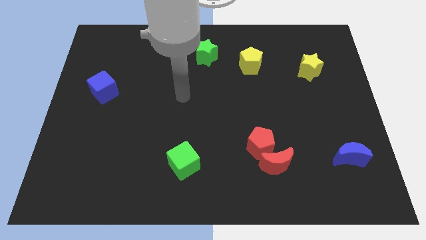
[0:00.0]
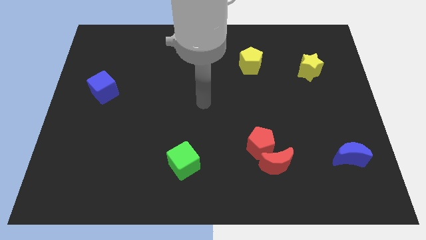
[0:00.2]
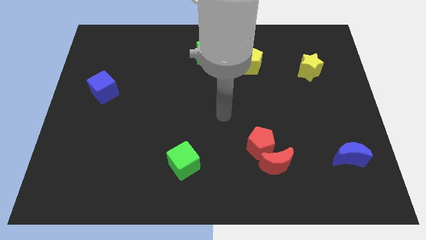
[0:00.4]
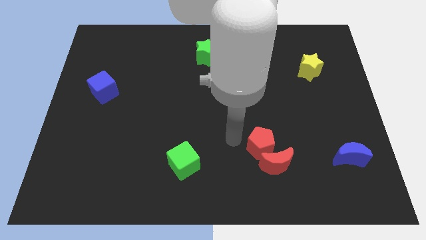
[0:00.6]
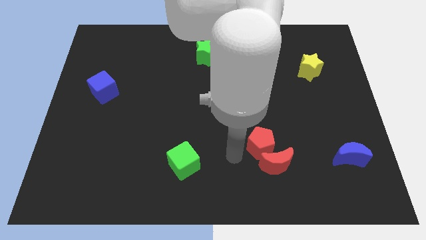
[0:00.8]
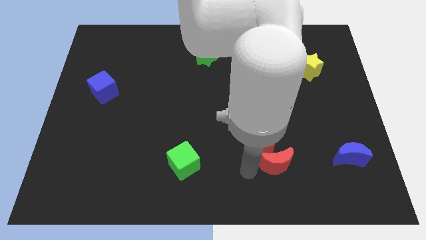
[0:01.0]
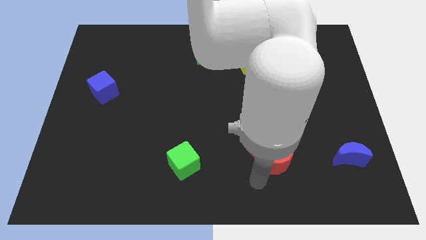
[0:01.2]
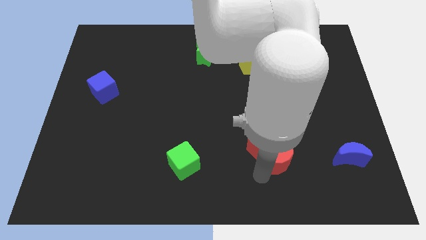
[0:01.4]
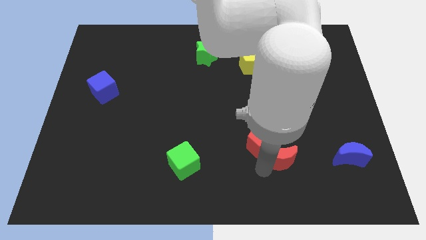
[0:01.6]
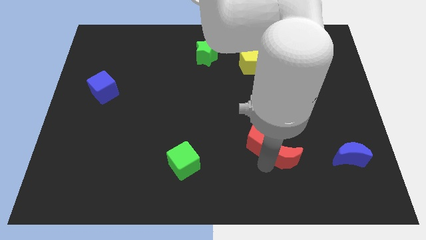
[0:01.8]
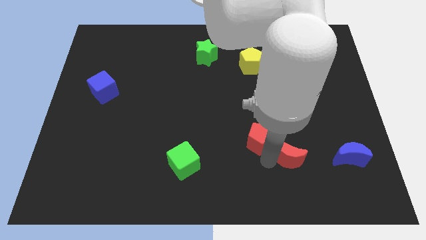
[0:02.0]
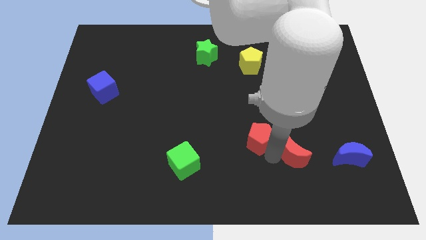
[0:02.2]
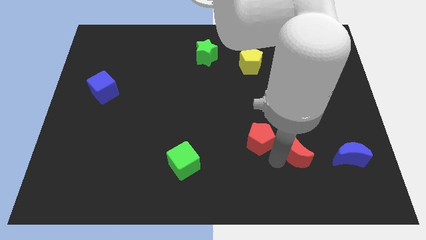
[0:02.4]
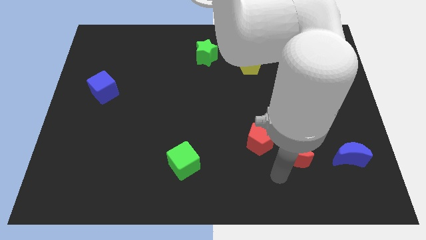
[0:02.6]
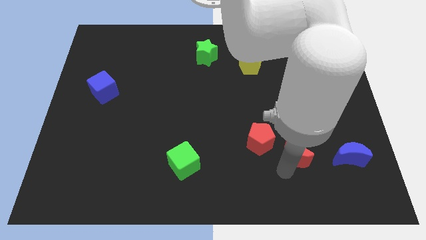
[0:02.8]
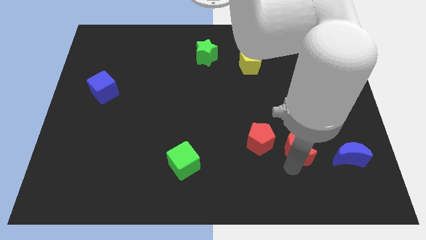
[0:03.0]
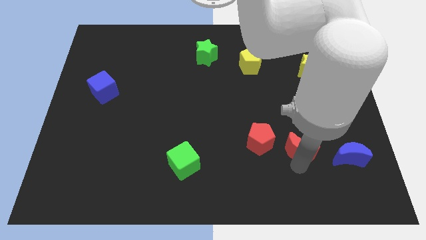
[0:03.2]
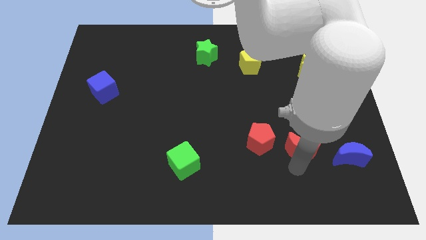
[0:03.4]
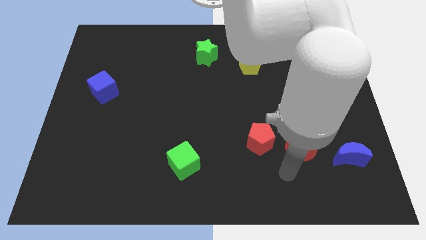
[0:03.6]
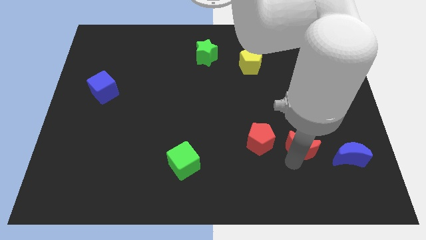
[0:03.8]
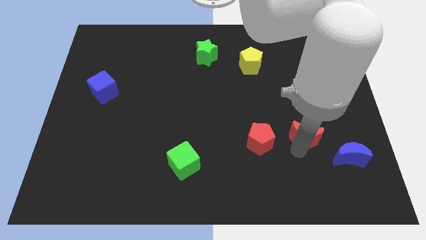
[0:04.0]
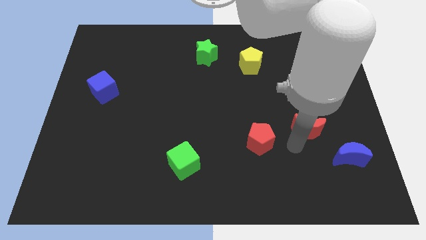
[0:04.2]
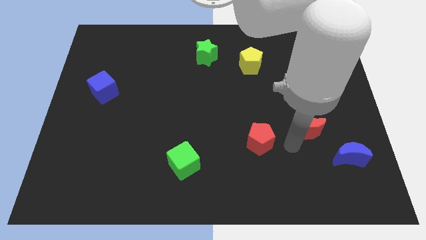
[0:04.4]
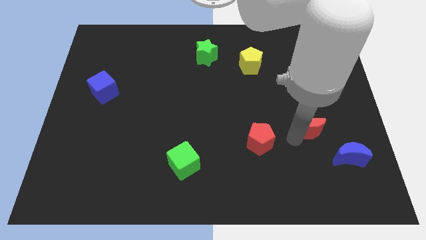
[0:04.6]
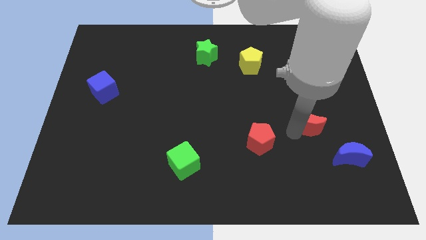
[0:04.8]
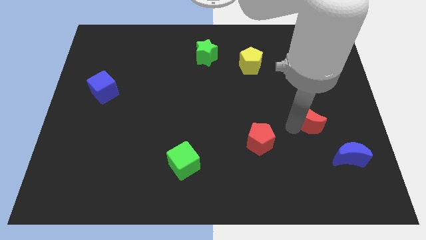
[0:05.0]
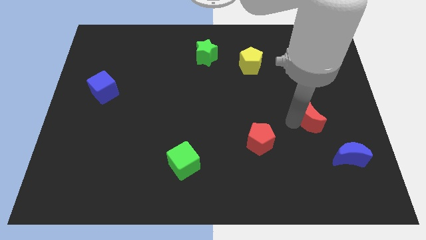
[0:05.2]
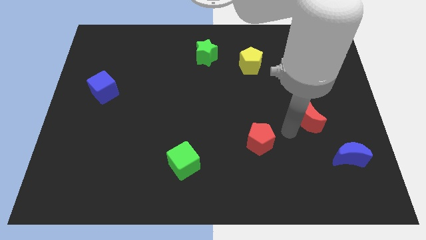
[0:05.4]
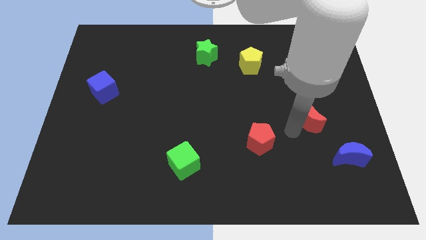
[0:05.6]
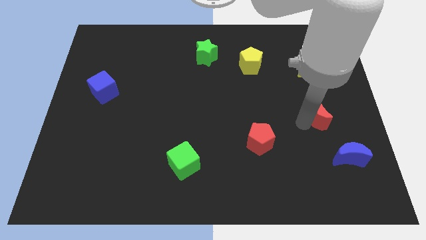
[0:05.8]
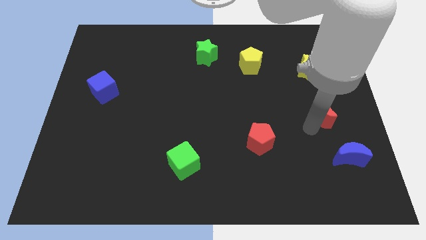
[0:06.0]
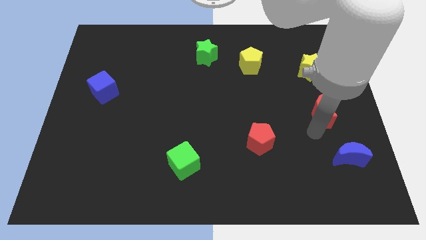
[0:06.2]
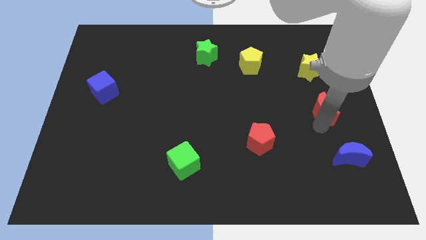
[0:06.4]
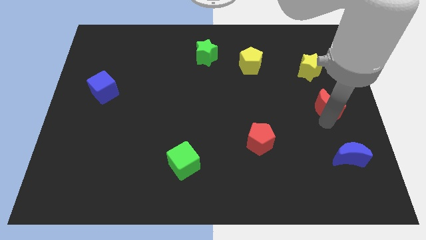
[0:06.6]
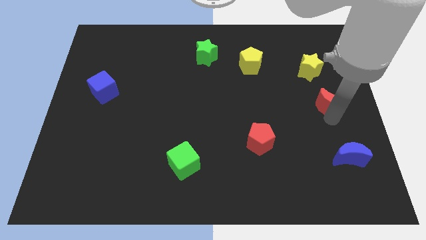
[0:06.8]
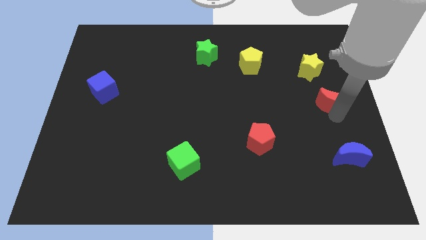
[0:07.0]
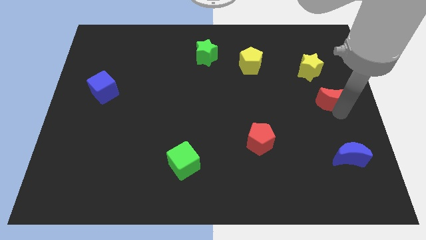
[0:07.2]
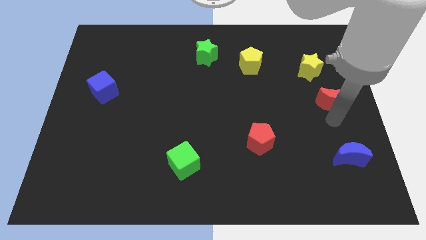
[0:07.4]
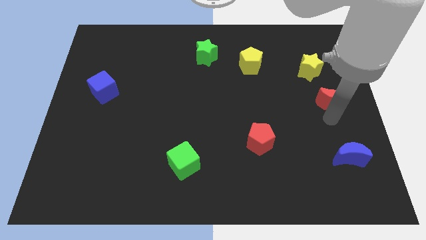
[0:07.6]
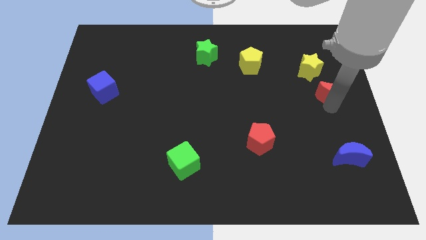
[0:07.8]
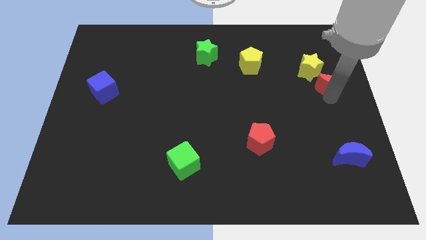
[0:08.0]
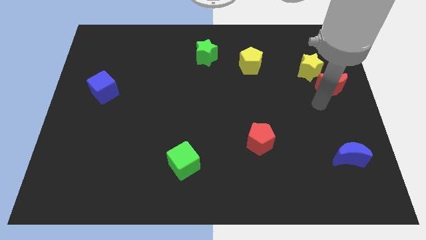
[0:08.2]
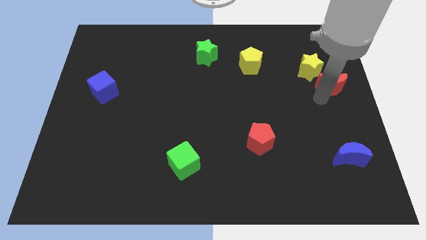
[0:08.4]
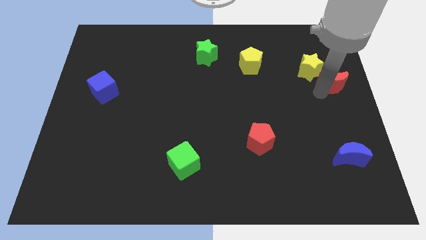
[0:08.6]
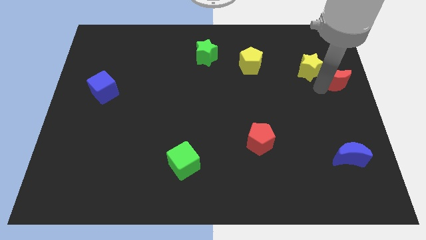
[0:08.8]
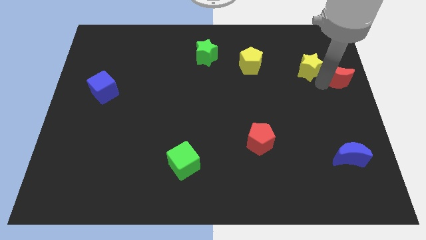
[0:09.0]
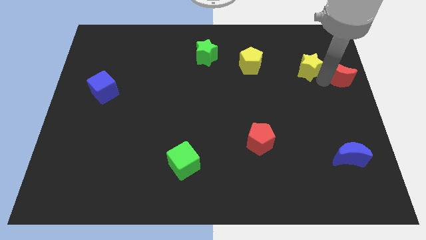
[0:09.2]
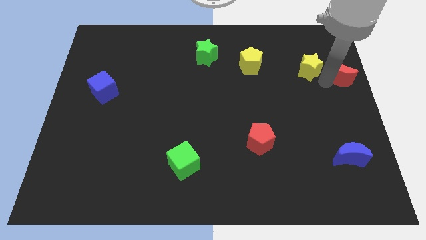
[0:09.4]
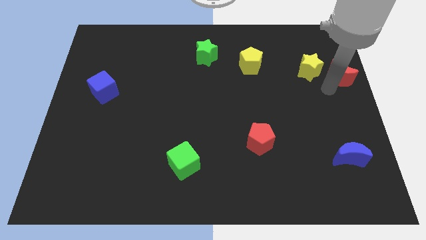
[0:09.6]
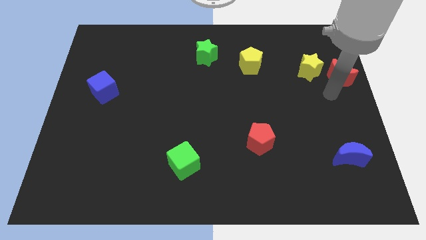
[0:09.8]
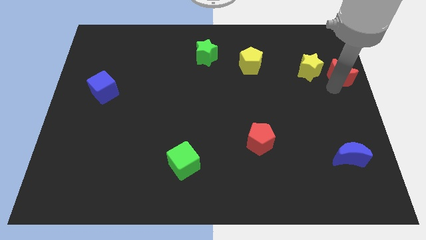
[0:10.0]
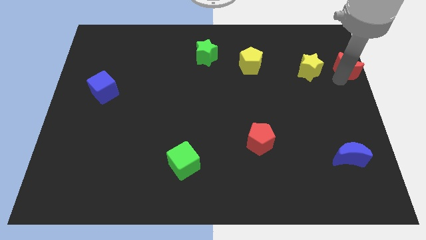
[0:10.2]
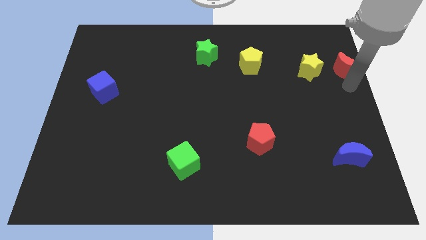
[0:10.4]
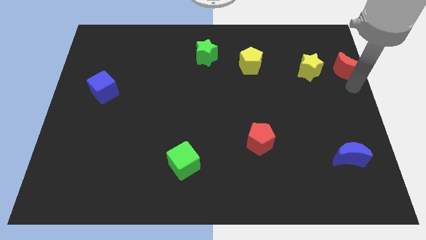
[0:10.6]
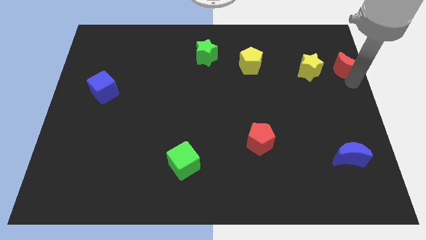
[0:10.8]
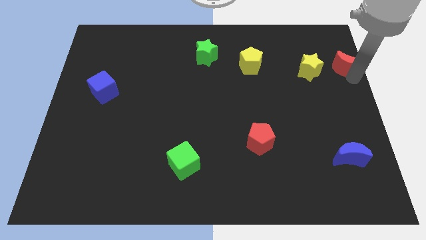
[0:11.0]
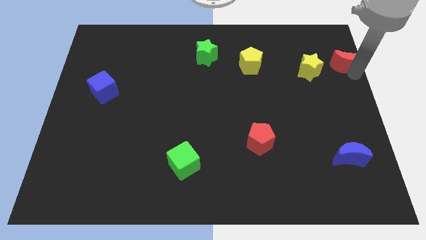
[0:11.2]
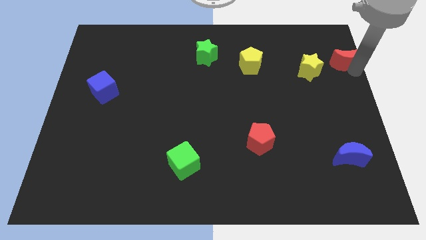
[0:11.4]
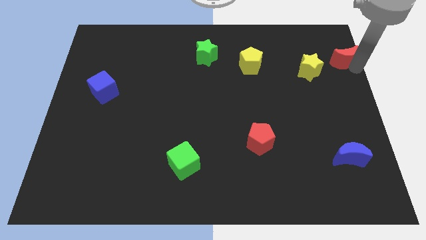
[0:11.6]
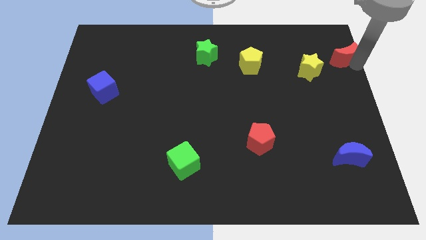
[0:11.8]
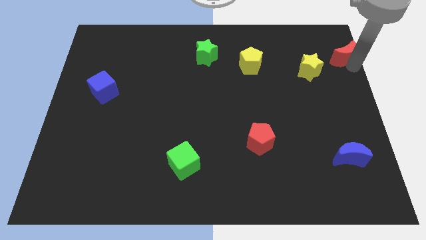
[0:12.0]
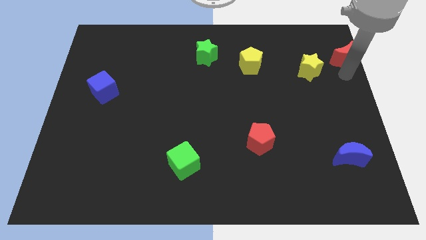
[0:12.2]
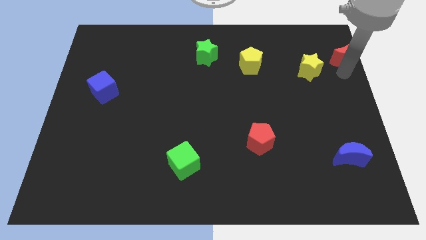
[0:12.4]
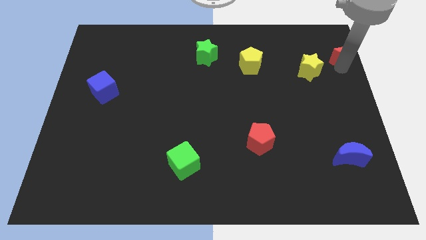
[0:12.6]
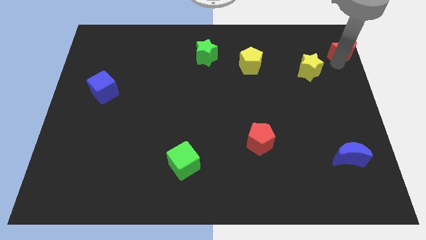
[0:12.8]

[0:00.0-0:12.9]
slide the red moon to the top right of the board

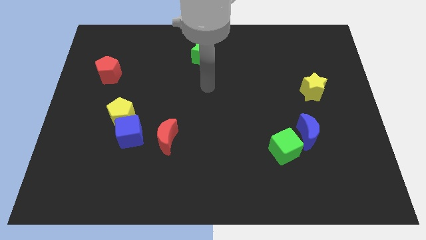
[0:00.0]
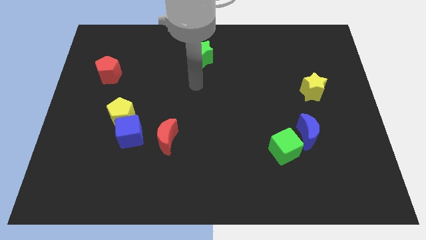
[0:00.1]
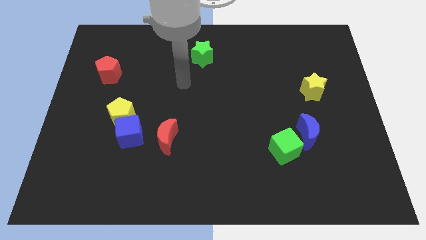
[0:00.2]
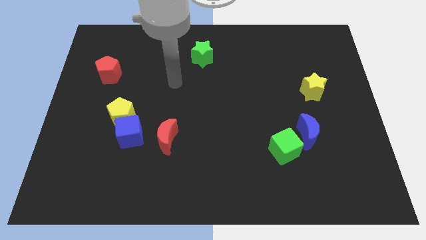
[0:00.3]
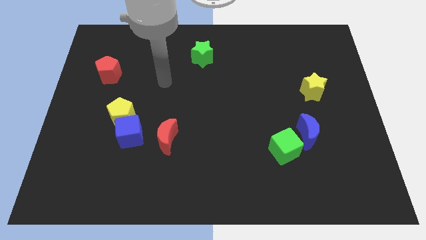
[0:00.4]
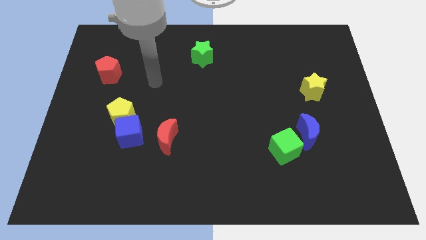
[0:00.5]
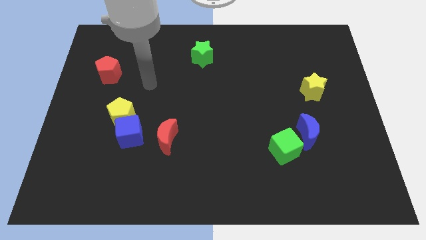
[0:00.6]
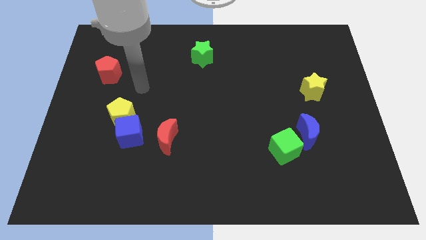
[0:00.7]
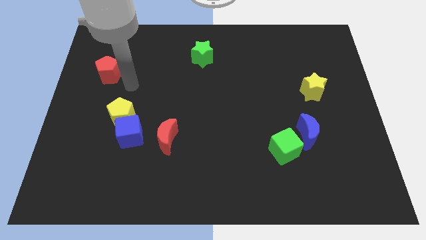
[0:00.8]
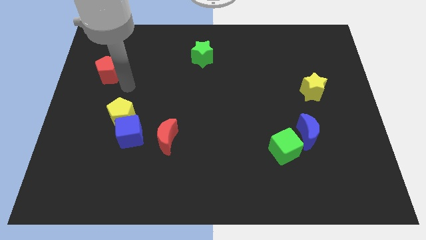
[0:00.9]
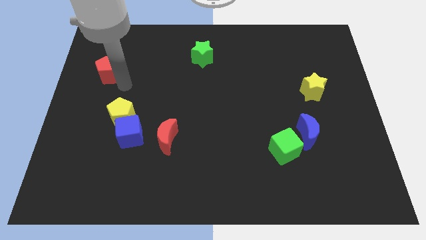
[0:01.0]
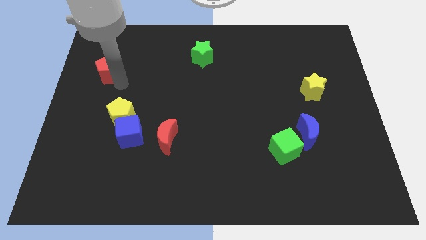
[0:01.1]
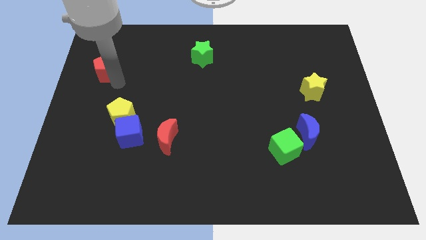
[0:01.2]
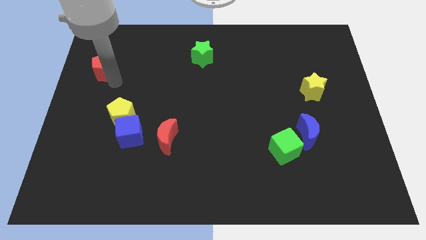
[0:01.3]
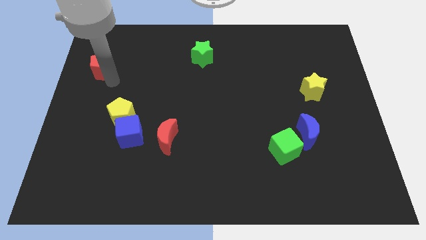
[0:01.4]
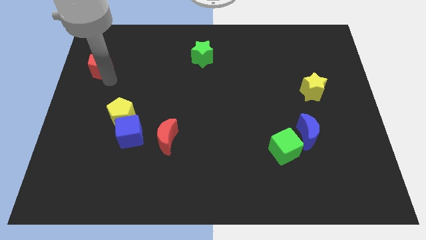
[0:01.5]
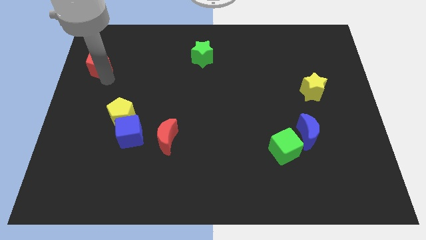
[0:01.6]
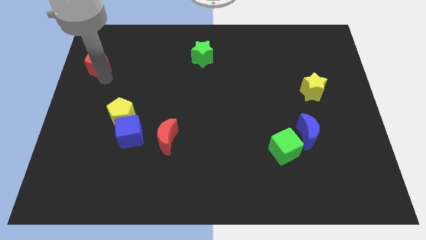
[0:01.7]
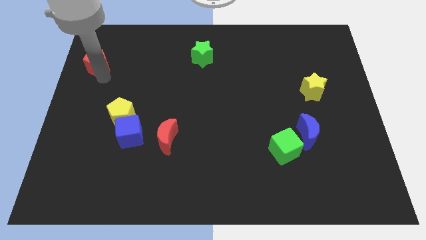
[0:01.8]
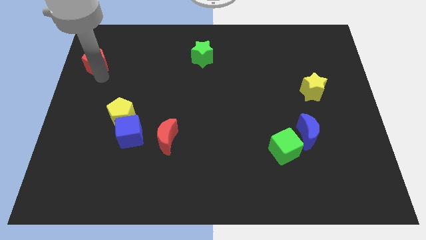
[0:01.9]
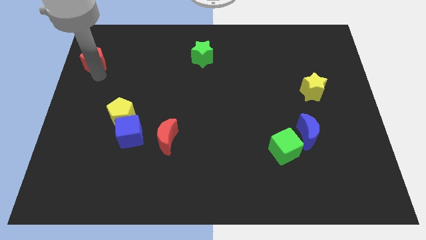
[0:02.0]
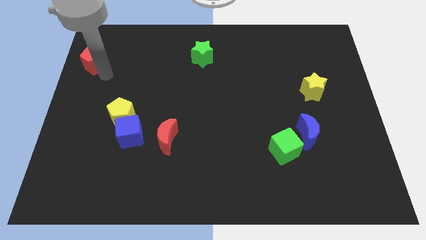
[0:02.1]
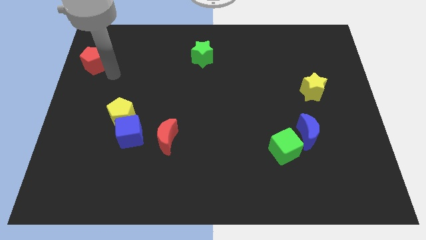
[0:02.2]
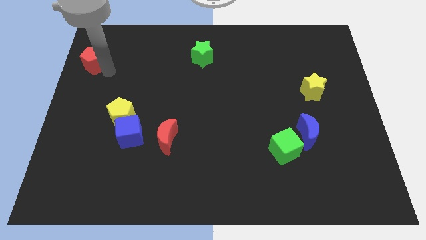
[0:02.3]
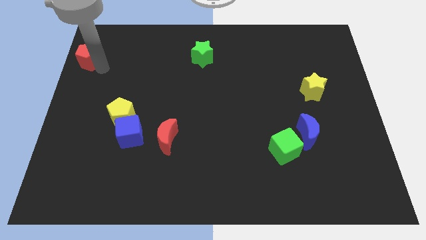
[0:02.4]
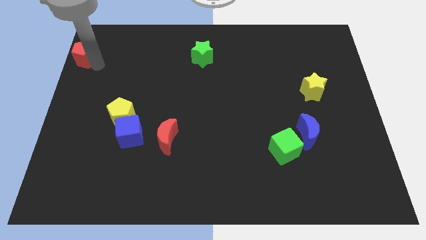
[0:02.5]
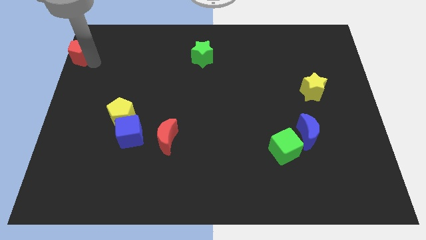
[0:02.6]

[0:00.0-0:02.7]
push the red pentagon to the top left corner
